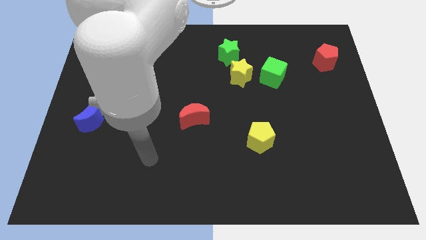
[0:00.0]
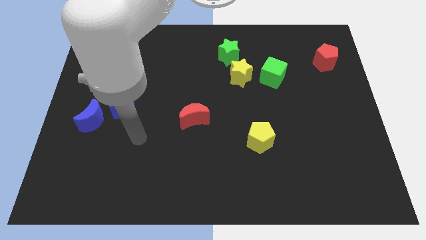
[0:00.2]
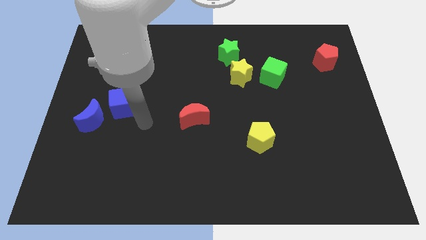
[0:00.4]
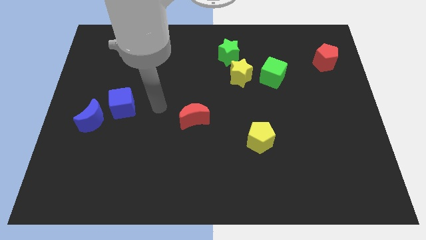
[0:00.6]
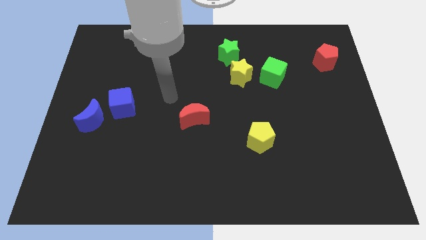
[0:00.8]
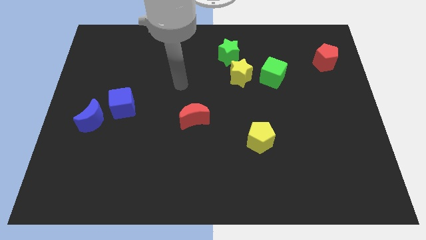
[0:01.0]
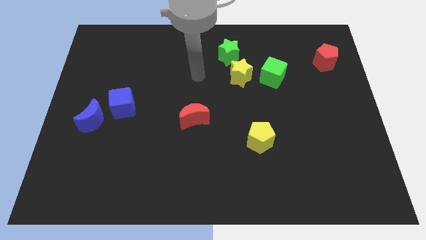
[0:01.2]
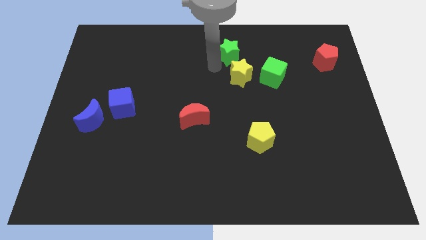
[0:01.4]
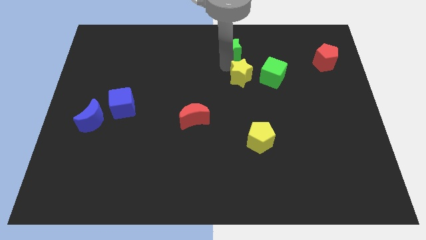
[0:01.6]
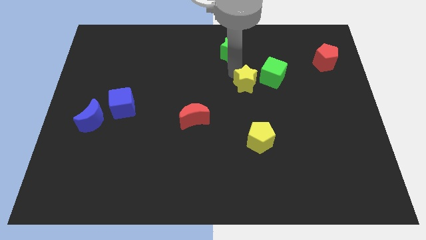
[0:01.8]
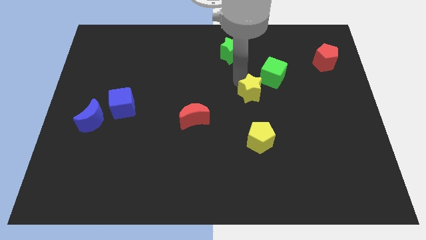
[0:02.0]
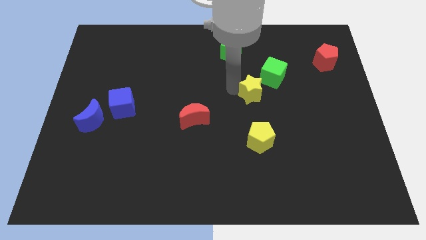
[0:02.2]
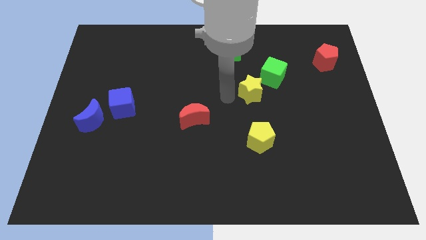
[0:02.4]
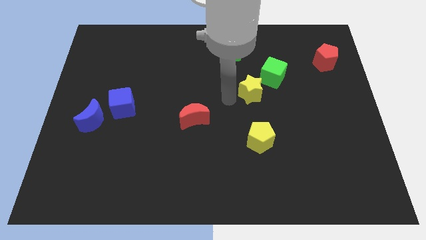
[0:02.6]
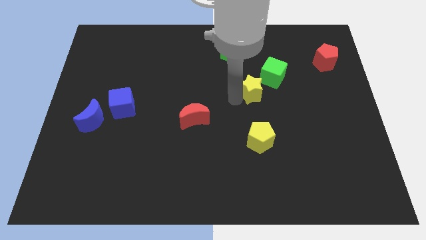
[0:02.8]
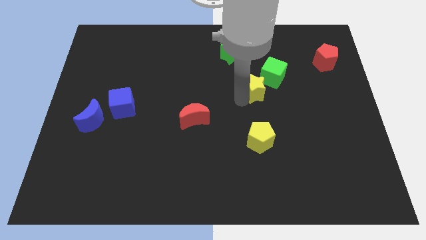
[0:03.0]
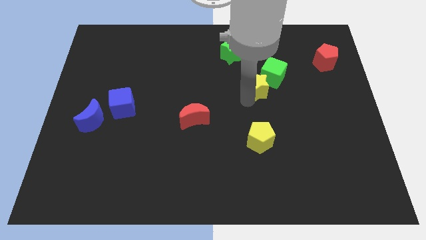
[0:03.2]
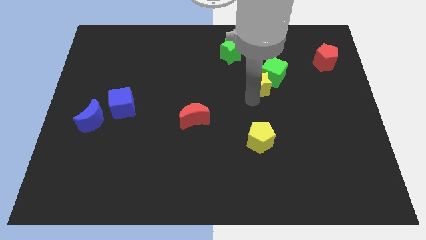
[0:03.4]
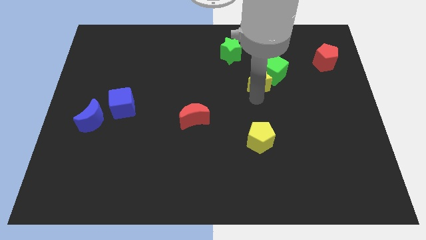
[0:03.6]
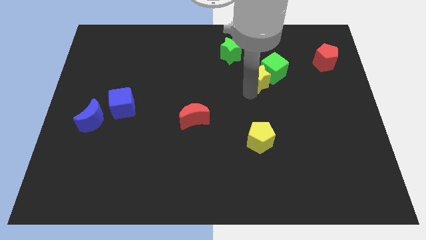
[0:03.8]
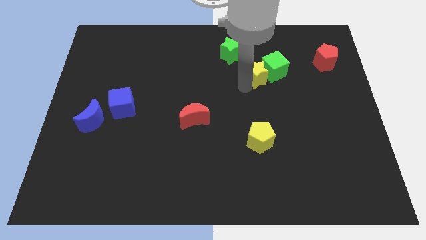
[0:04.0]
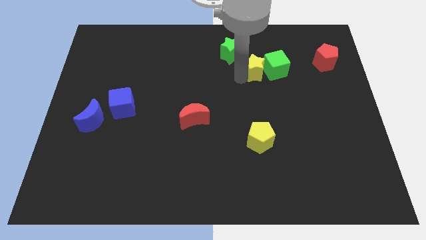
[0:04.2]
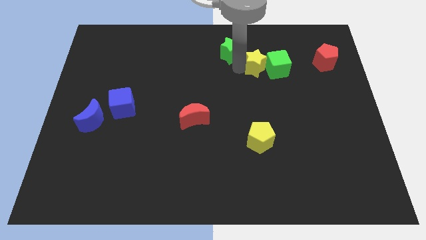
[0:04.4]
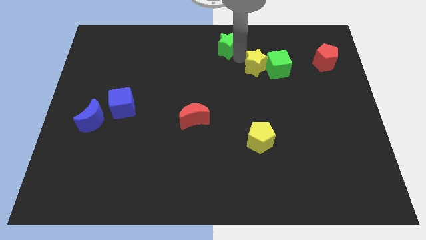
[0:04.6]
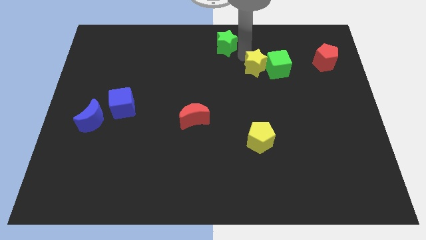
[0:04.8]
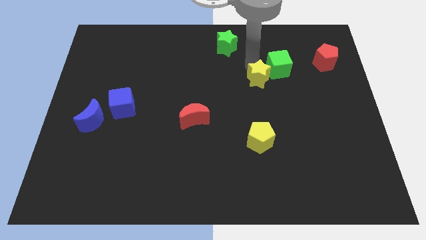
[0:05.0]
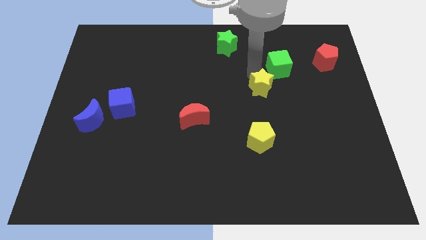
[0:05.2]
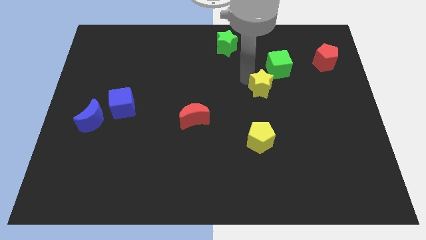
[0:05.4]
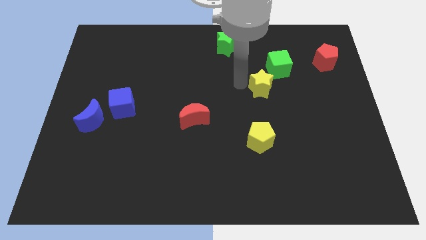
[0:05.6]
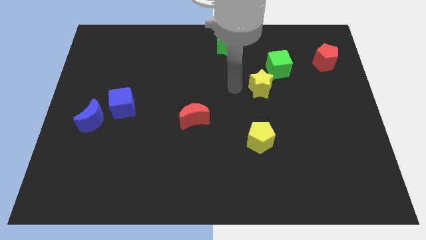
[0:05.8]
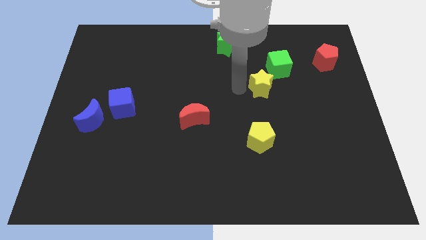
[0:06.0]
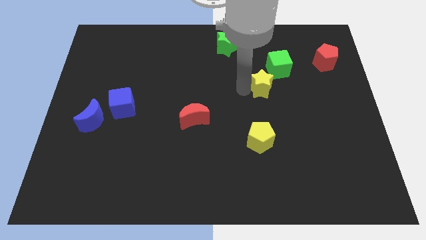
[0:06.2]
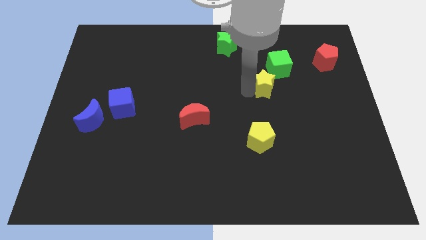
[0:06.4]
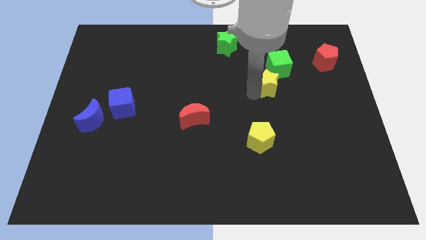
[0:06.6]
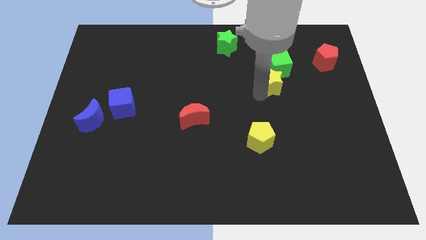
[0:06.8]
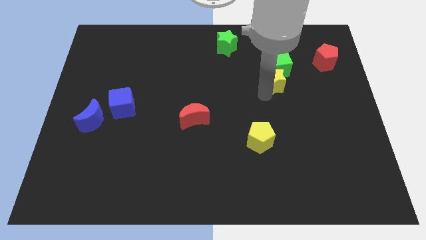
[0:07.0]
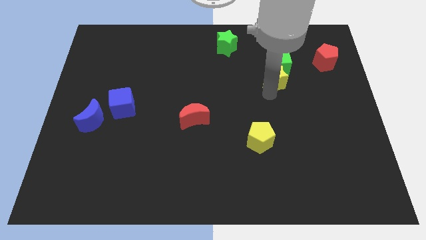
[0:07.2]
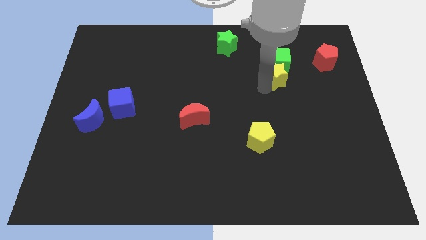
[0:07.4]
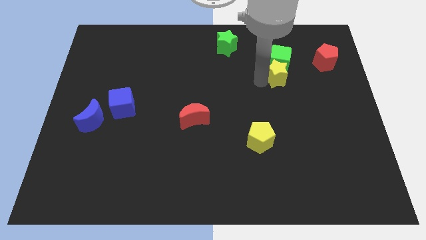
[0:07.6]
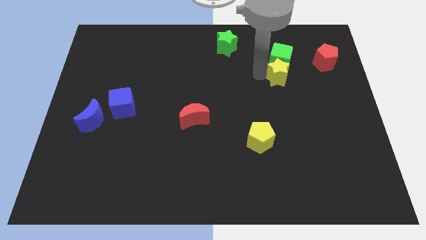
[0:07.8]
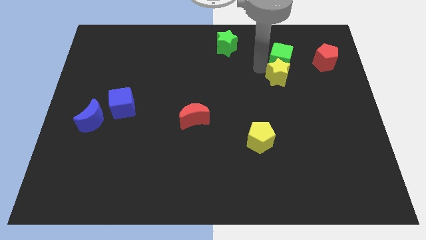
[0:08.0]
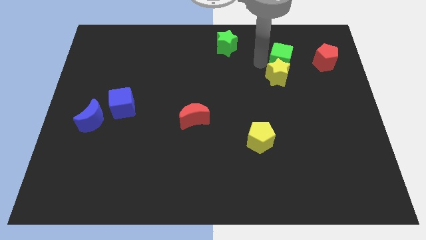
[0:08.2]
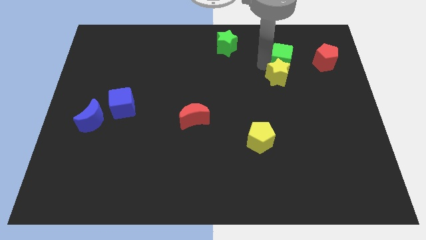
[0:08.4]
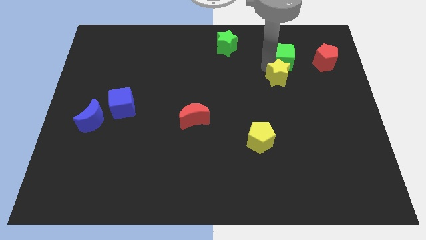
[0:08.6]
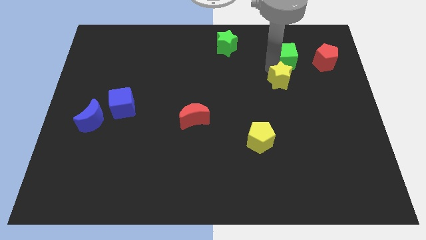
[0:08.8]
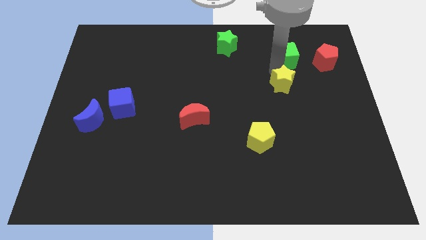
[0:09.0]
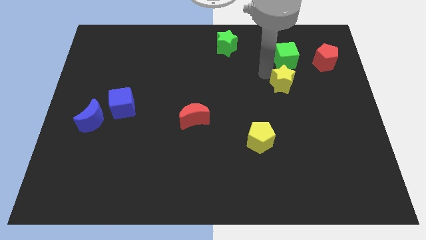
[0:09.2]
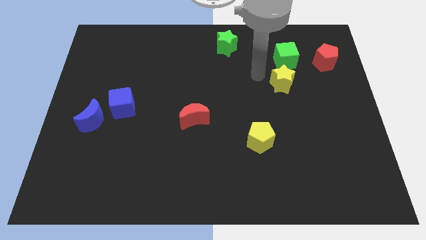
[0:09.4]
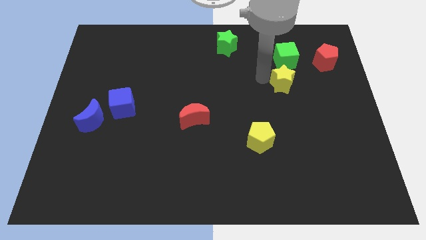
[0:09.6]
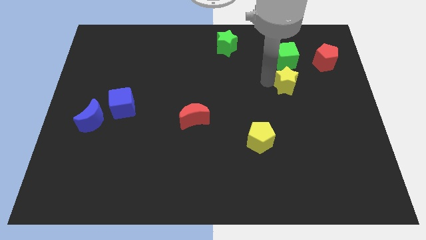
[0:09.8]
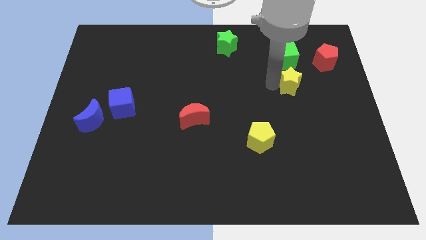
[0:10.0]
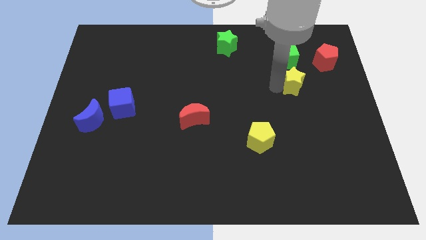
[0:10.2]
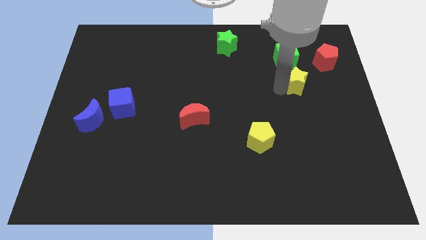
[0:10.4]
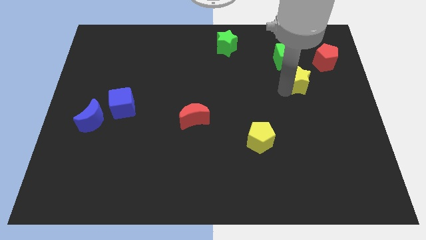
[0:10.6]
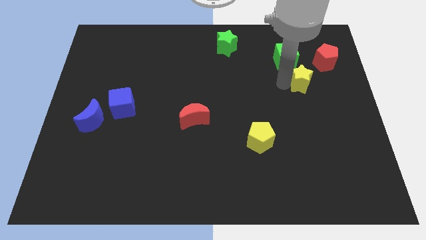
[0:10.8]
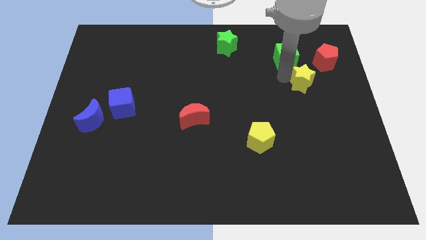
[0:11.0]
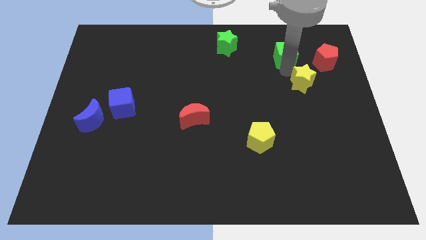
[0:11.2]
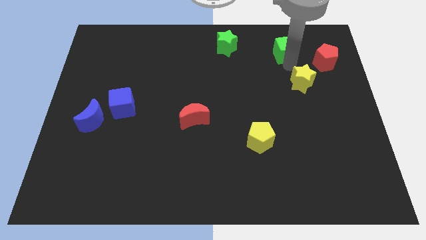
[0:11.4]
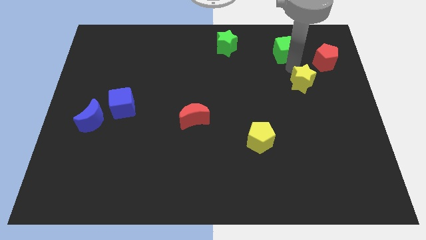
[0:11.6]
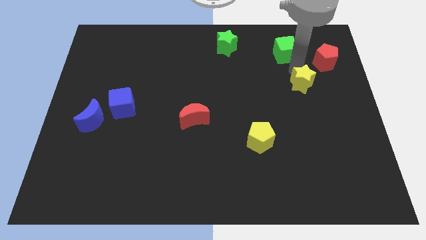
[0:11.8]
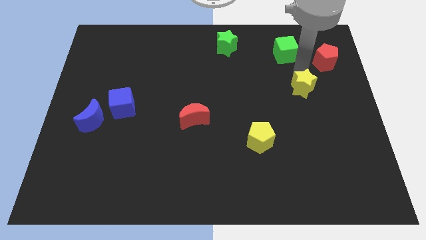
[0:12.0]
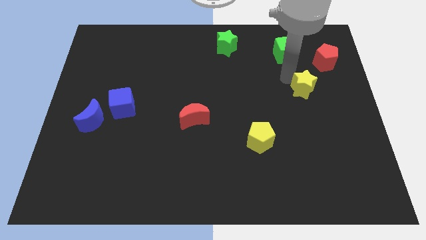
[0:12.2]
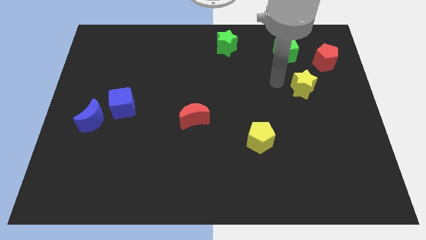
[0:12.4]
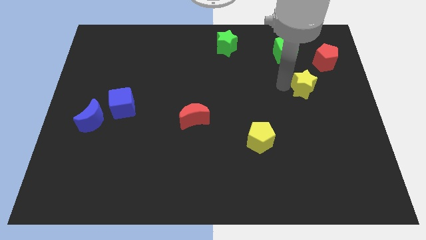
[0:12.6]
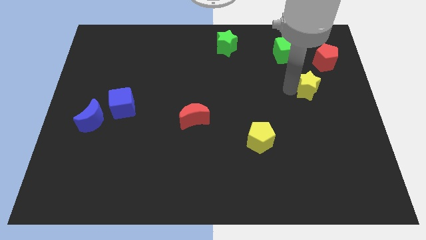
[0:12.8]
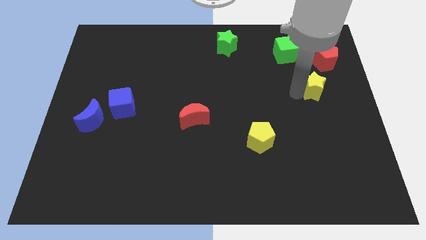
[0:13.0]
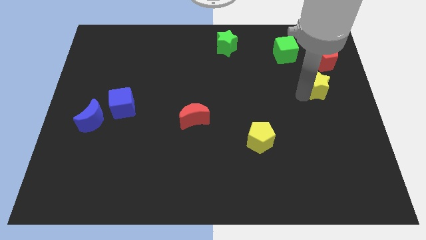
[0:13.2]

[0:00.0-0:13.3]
slide the yellow star to the right side of the board
